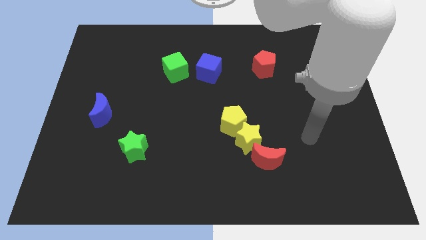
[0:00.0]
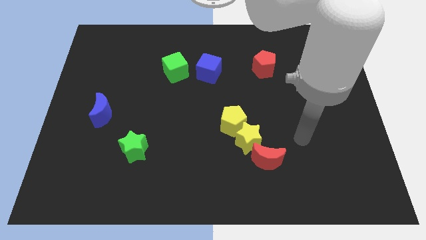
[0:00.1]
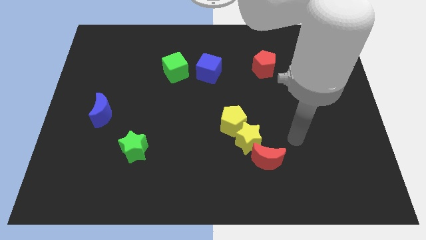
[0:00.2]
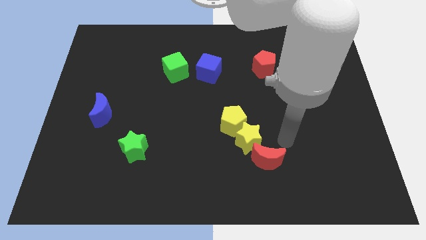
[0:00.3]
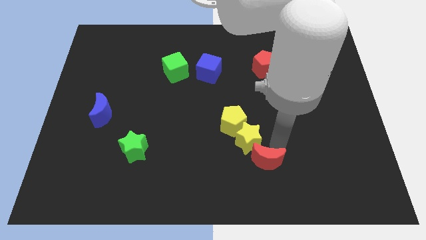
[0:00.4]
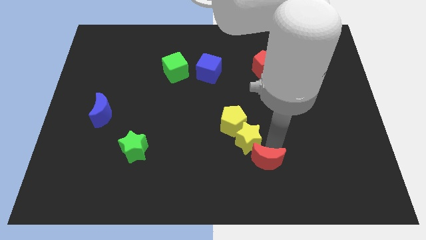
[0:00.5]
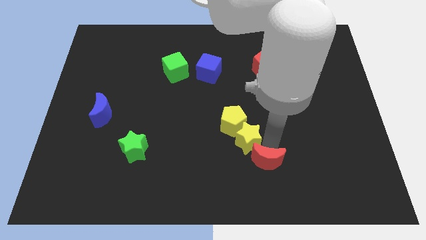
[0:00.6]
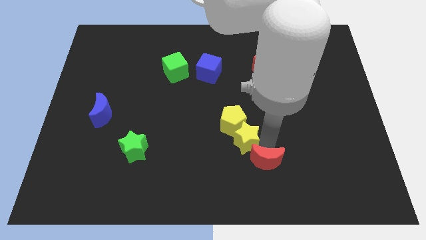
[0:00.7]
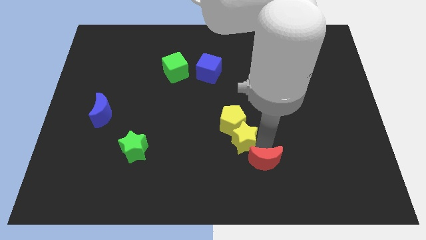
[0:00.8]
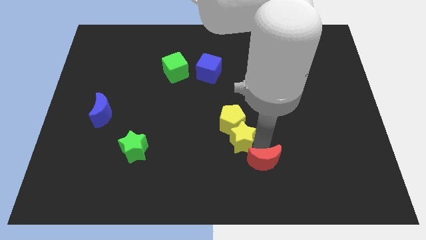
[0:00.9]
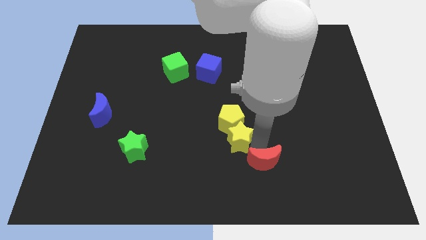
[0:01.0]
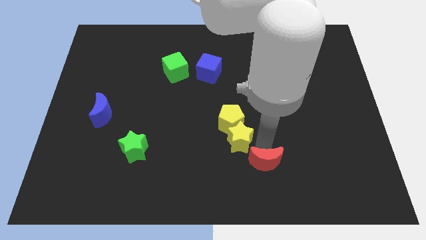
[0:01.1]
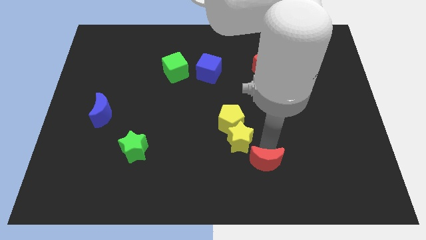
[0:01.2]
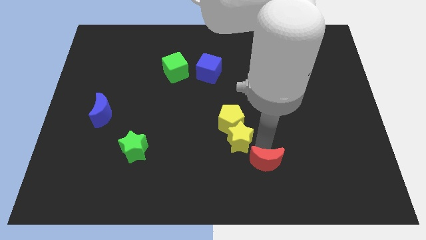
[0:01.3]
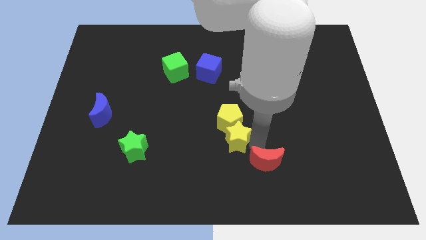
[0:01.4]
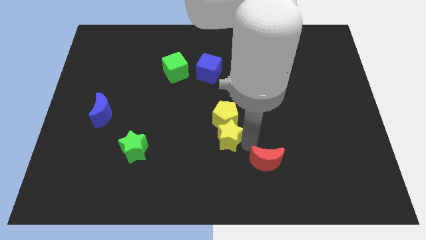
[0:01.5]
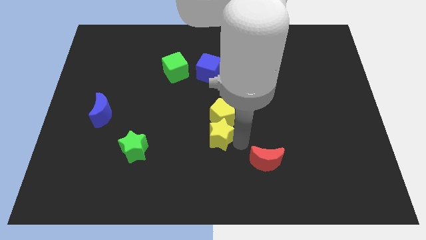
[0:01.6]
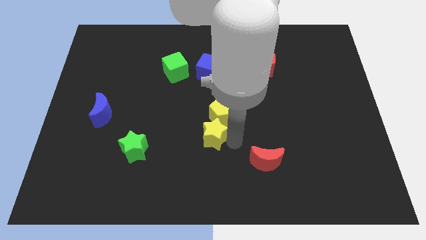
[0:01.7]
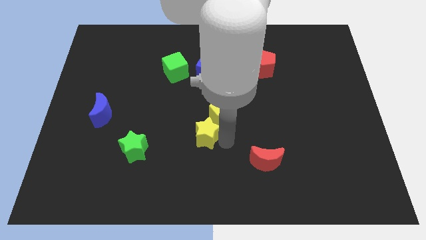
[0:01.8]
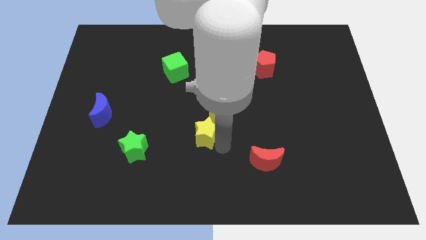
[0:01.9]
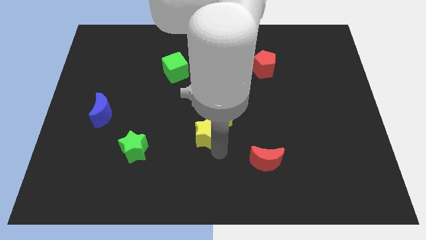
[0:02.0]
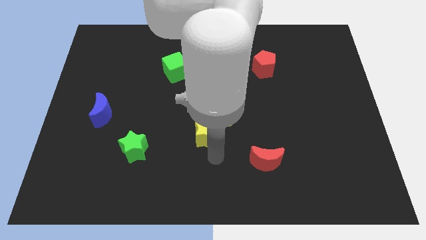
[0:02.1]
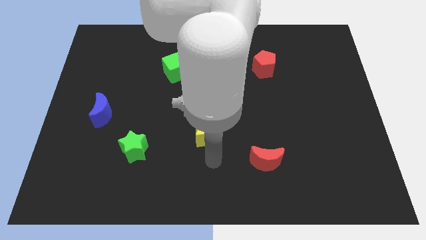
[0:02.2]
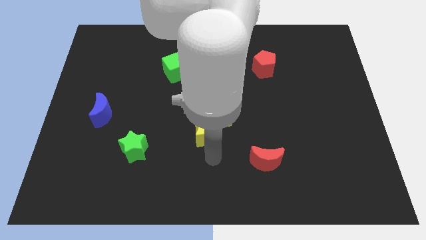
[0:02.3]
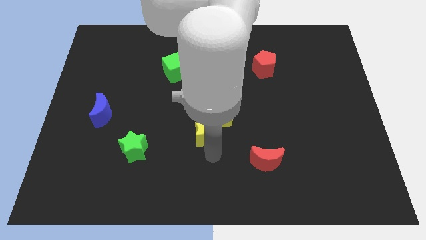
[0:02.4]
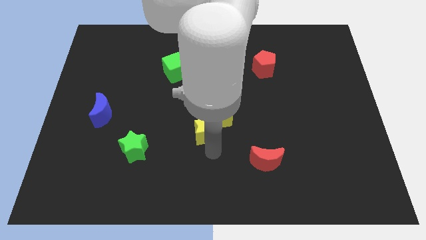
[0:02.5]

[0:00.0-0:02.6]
move the yellow star a little upwards and then to the left

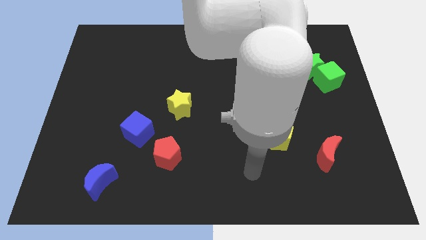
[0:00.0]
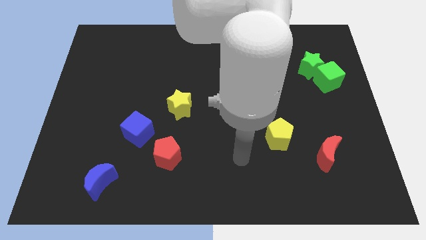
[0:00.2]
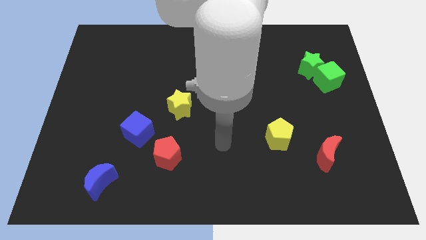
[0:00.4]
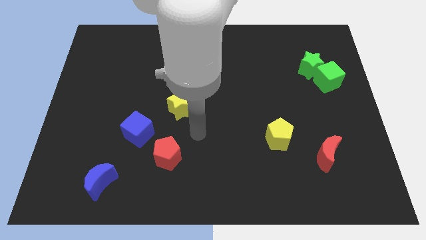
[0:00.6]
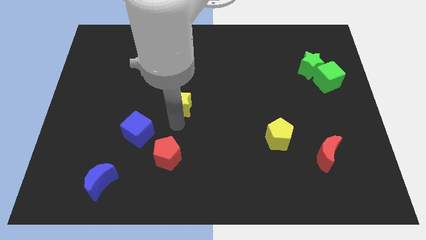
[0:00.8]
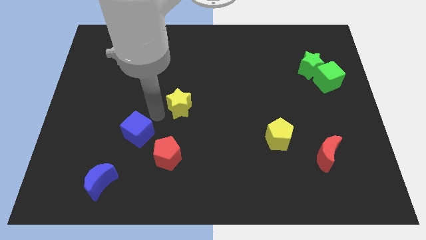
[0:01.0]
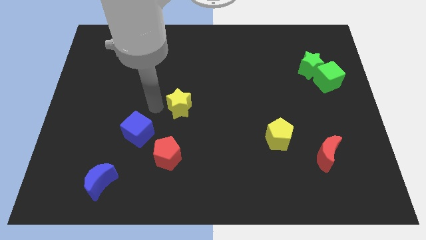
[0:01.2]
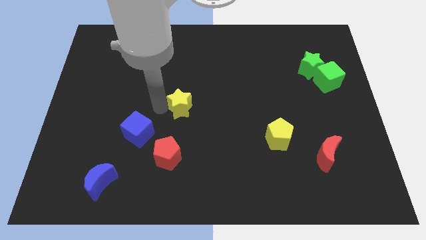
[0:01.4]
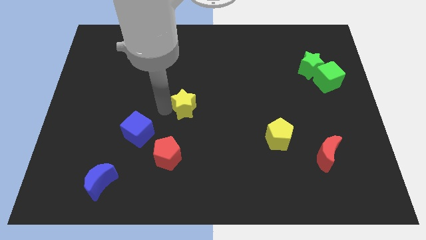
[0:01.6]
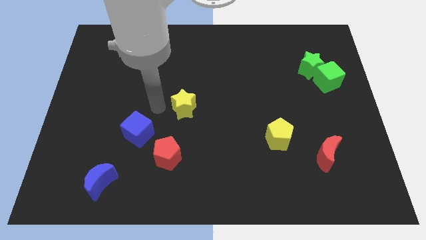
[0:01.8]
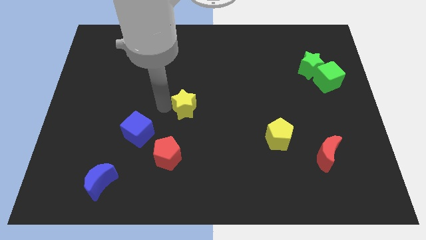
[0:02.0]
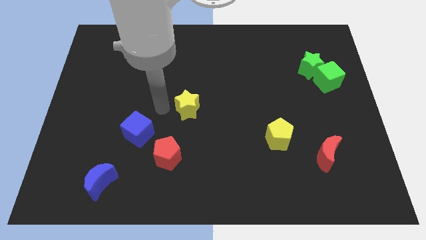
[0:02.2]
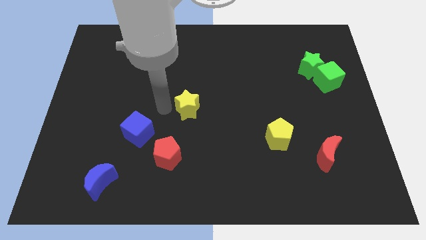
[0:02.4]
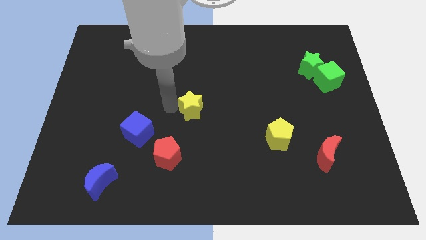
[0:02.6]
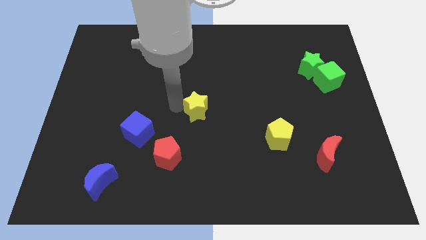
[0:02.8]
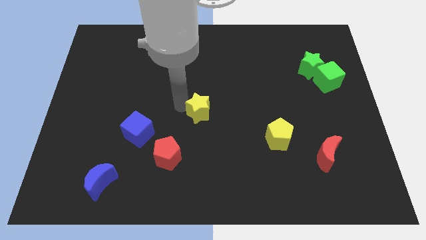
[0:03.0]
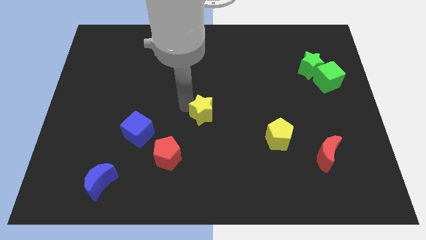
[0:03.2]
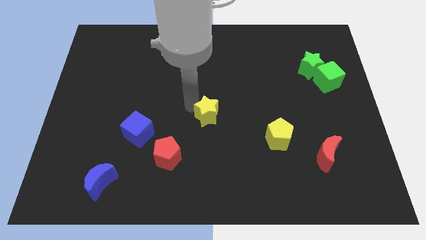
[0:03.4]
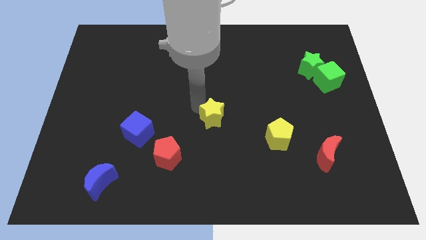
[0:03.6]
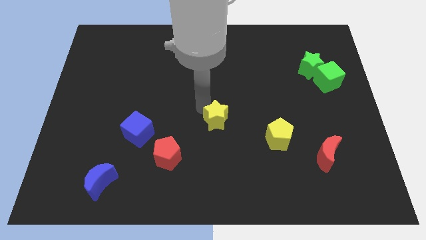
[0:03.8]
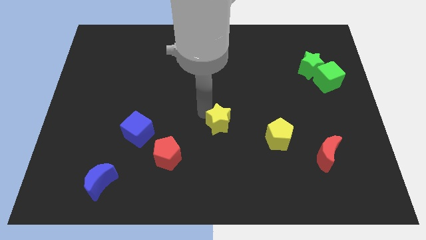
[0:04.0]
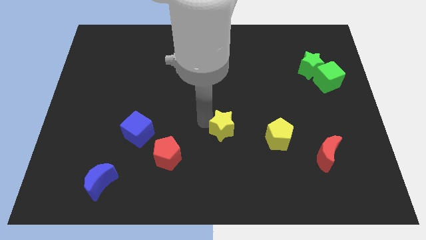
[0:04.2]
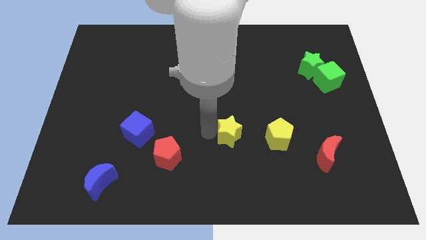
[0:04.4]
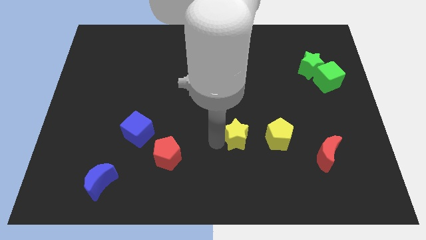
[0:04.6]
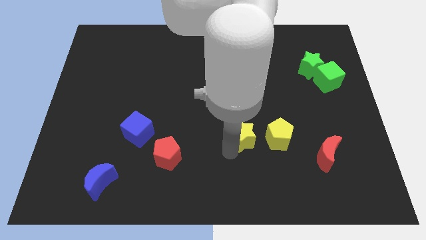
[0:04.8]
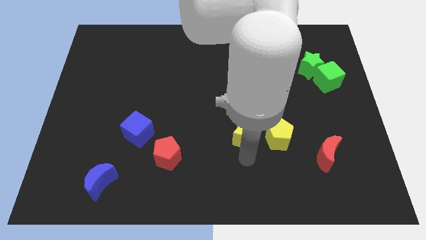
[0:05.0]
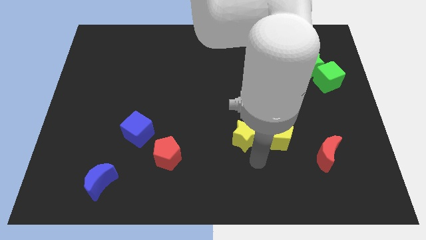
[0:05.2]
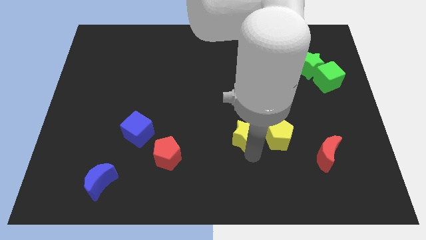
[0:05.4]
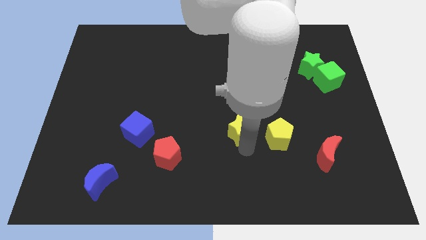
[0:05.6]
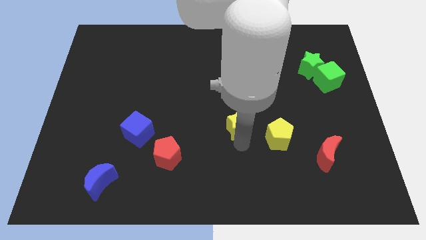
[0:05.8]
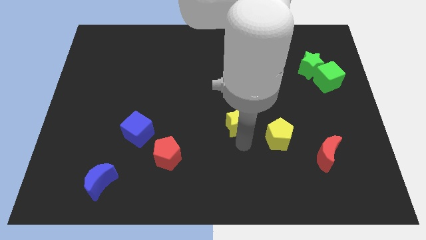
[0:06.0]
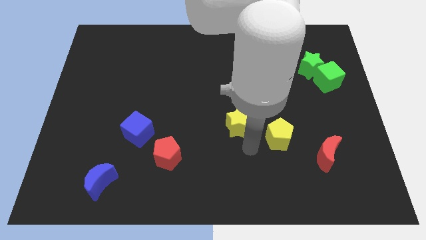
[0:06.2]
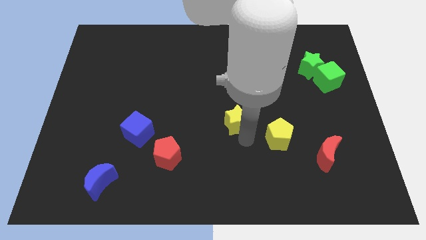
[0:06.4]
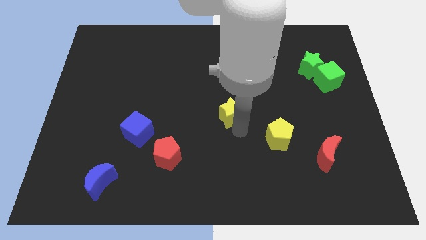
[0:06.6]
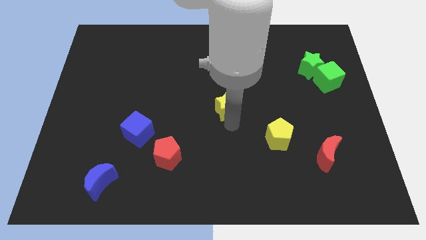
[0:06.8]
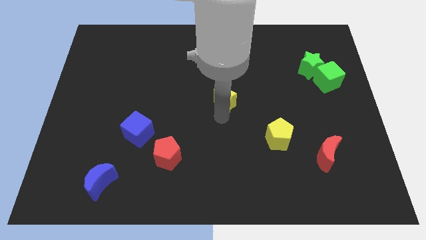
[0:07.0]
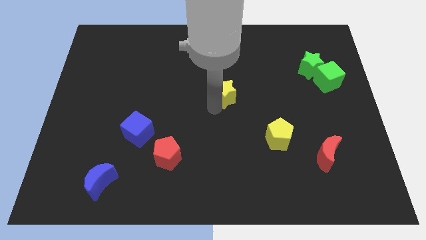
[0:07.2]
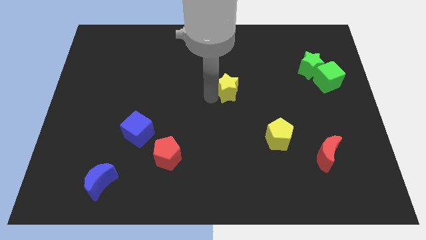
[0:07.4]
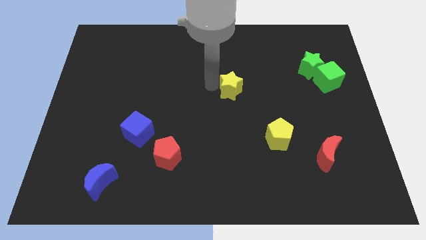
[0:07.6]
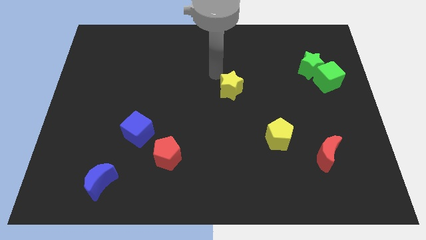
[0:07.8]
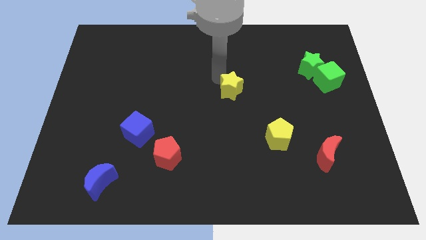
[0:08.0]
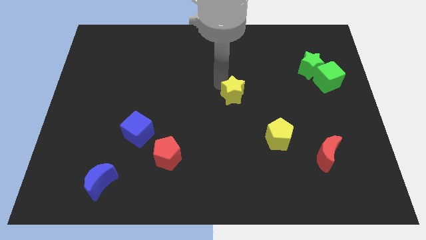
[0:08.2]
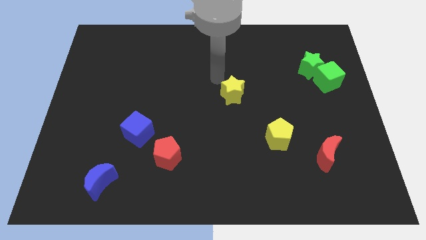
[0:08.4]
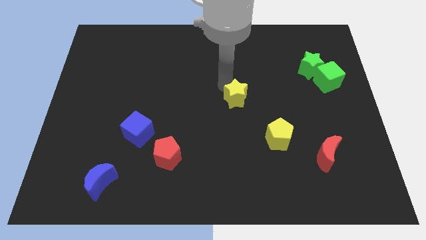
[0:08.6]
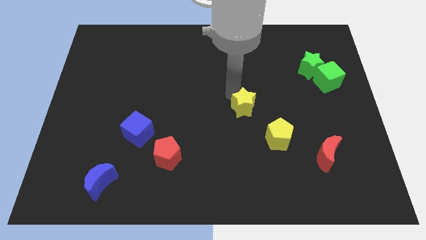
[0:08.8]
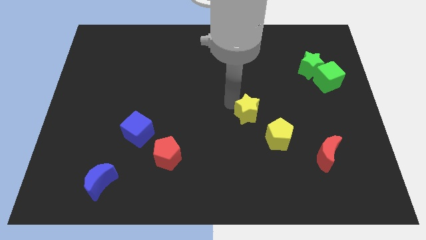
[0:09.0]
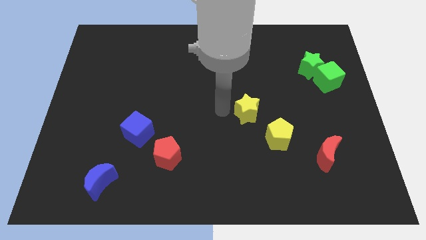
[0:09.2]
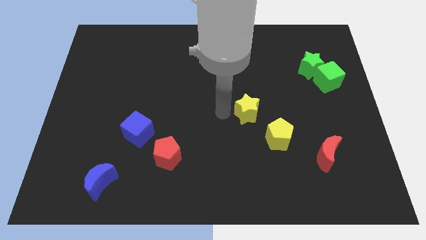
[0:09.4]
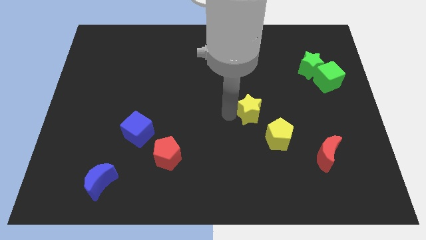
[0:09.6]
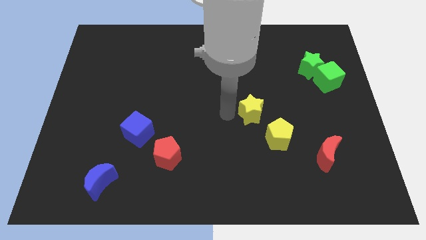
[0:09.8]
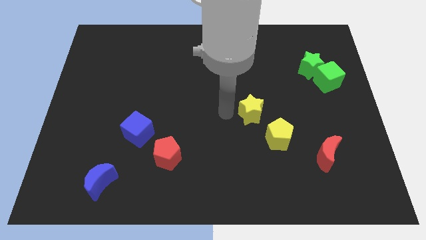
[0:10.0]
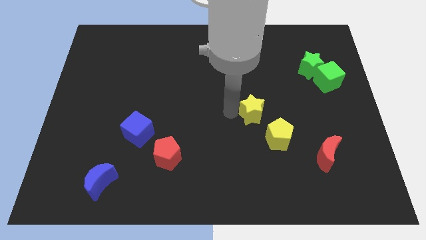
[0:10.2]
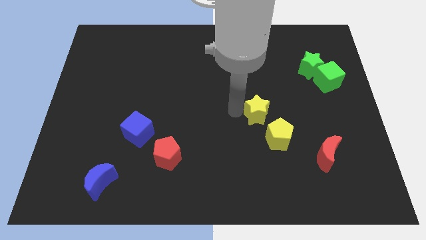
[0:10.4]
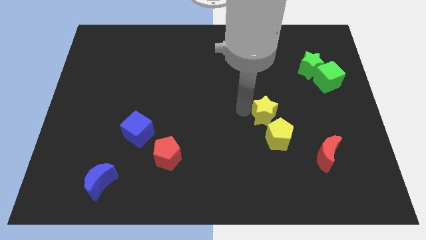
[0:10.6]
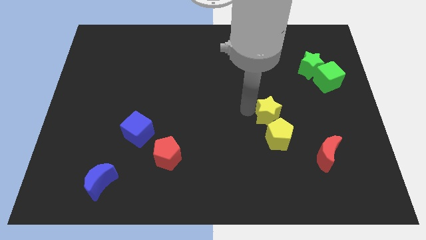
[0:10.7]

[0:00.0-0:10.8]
push the yellow star right
